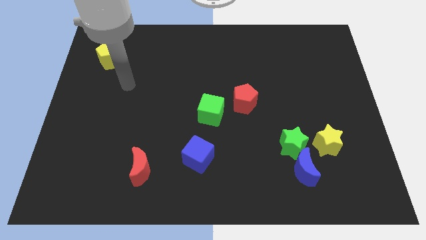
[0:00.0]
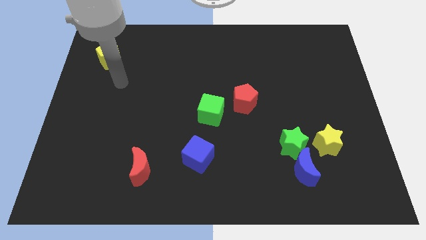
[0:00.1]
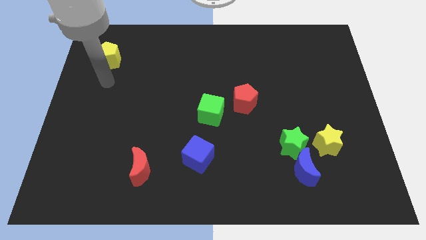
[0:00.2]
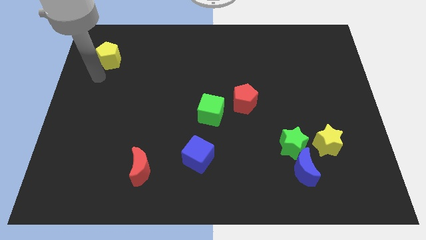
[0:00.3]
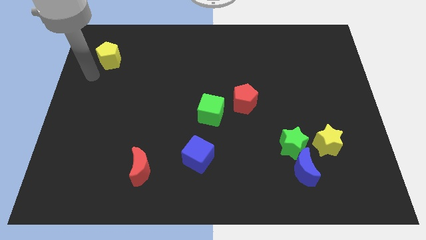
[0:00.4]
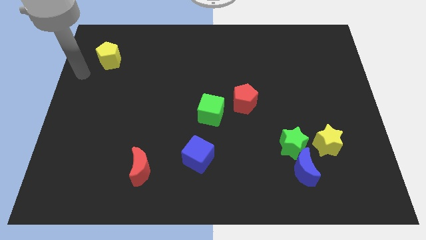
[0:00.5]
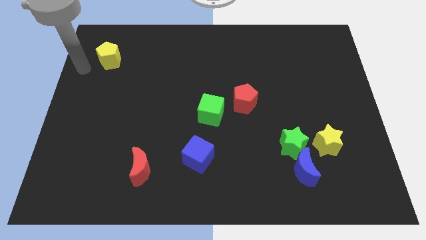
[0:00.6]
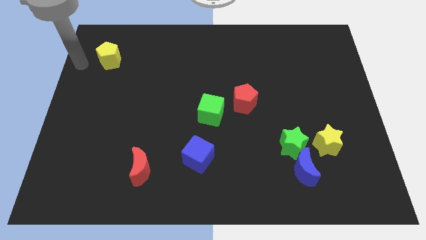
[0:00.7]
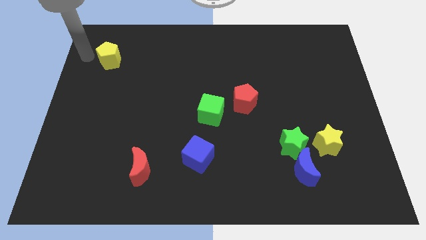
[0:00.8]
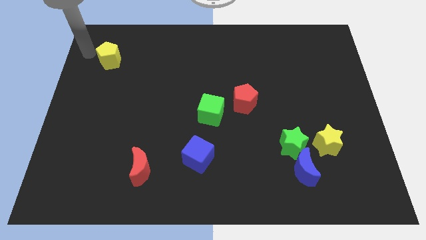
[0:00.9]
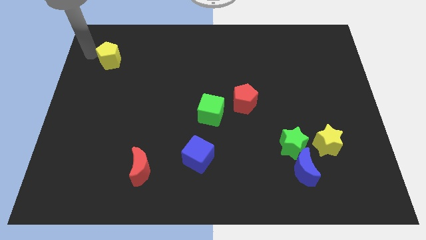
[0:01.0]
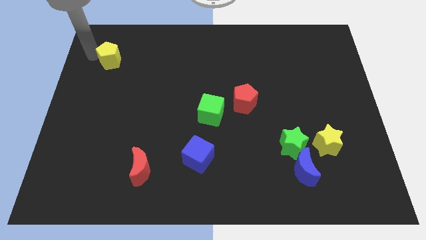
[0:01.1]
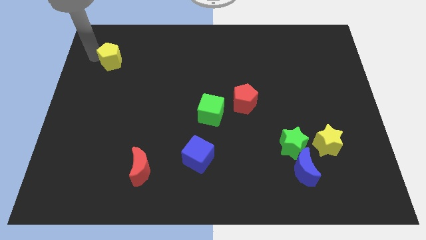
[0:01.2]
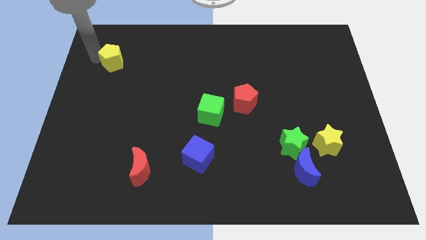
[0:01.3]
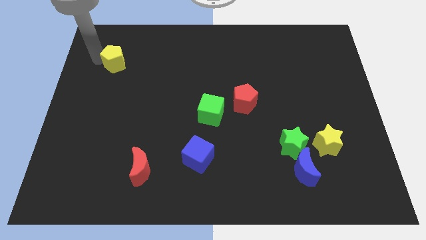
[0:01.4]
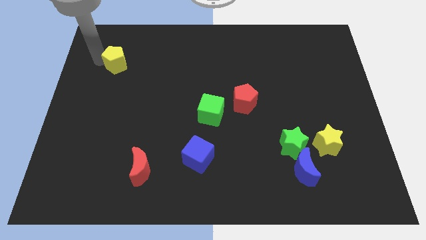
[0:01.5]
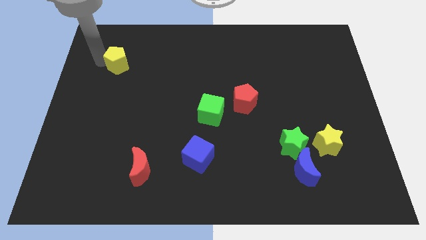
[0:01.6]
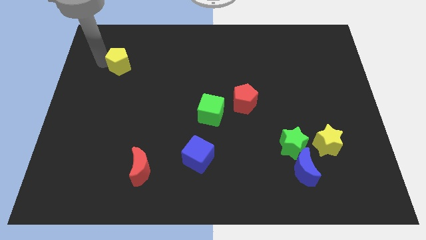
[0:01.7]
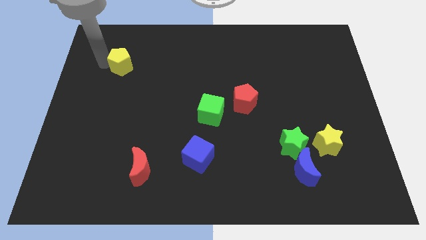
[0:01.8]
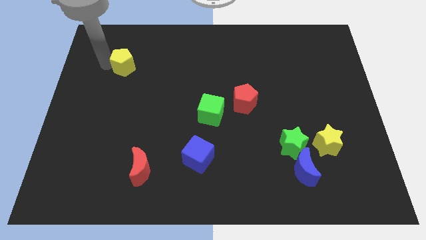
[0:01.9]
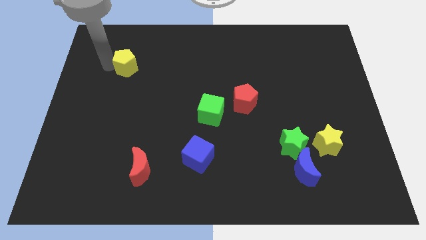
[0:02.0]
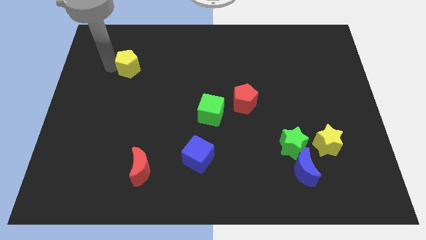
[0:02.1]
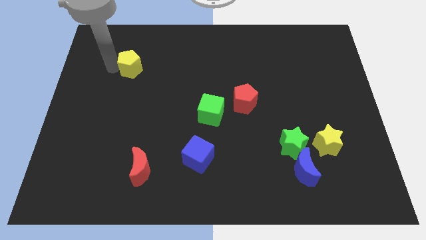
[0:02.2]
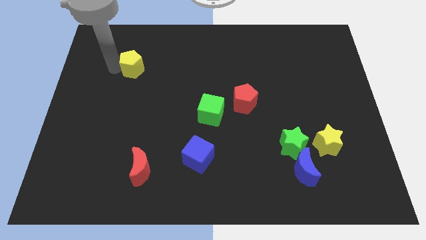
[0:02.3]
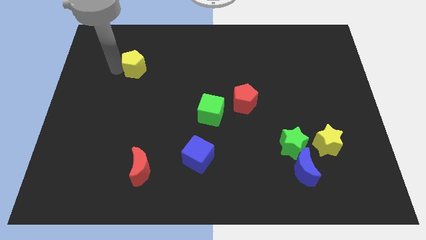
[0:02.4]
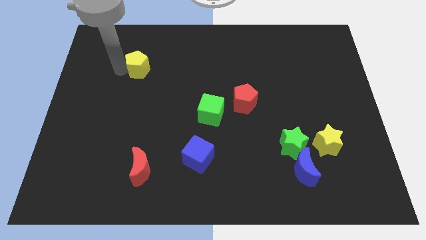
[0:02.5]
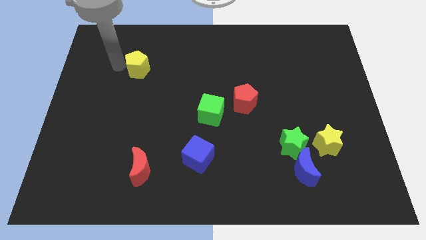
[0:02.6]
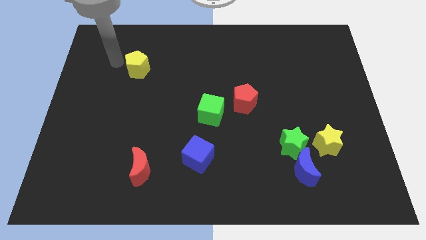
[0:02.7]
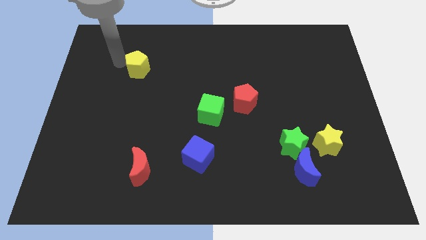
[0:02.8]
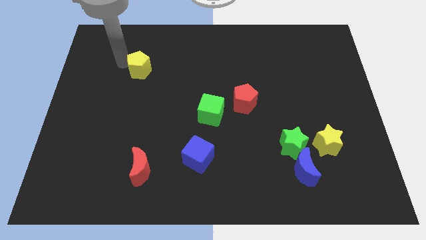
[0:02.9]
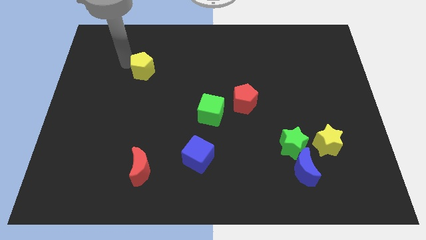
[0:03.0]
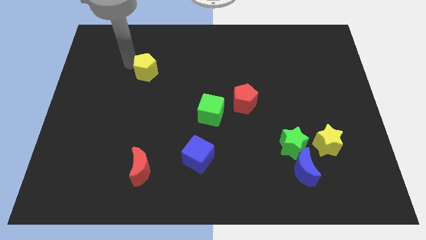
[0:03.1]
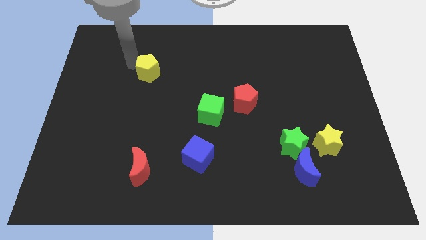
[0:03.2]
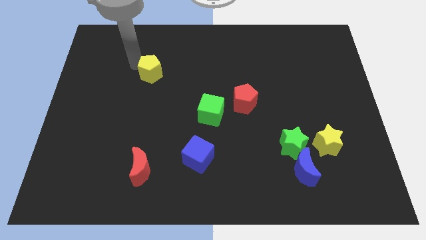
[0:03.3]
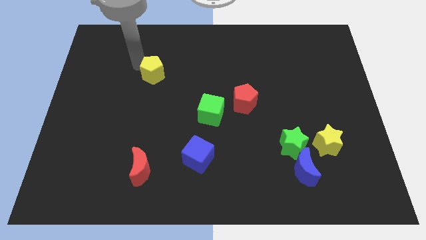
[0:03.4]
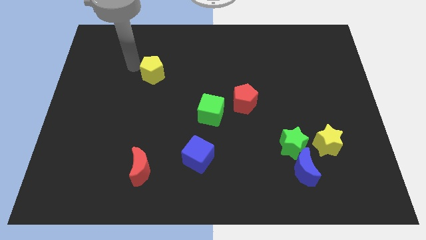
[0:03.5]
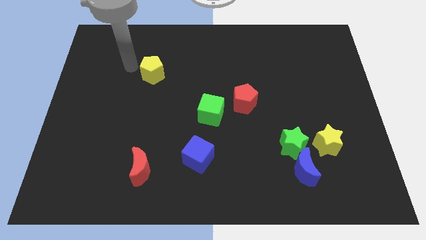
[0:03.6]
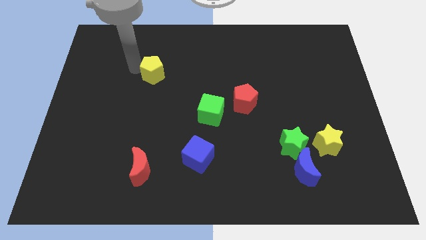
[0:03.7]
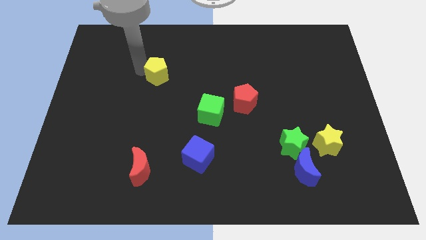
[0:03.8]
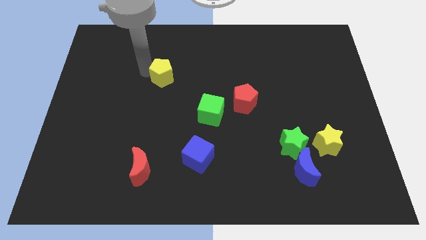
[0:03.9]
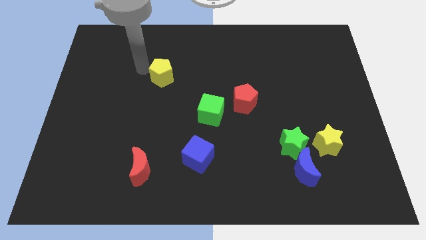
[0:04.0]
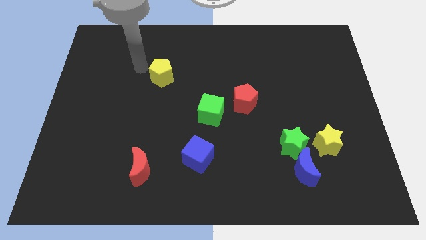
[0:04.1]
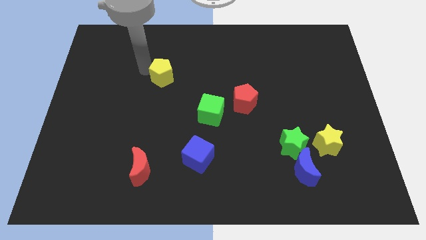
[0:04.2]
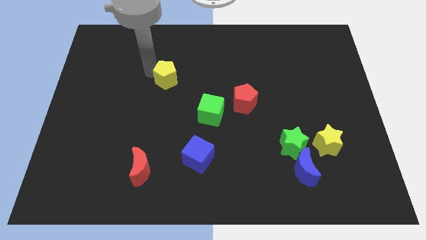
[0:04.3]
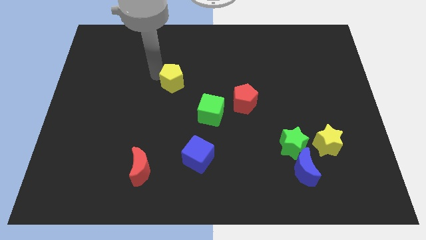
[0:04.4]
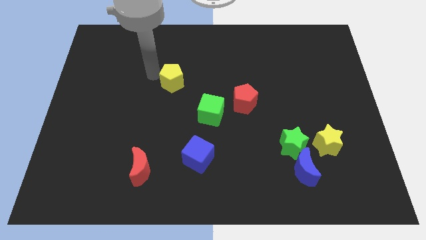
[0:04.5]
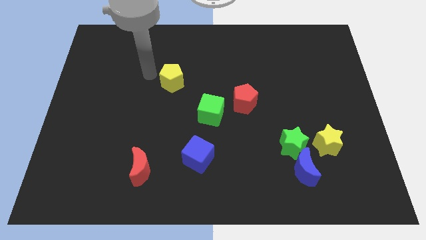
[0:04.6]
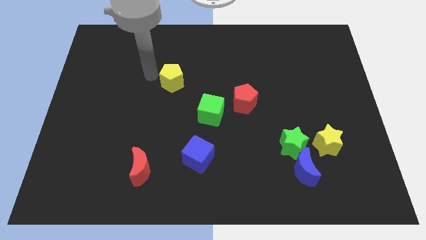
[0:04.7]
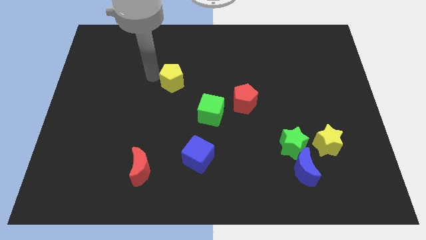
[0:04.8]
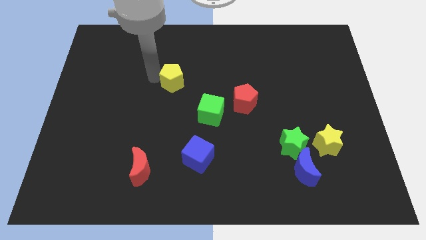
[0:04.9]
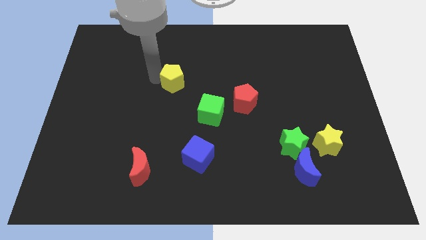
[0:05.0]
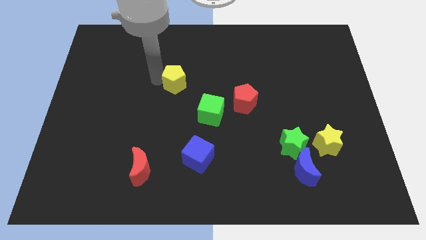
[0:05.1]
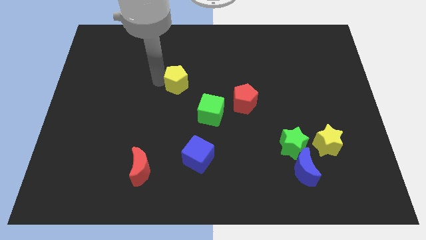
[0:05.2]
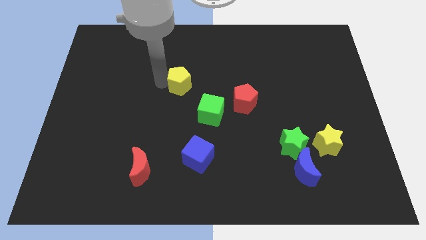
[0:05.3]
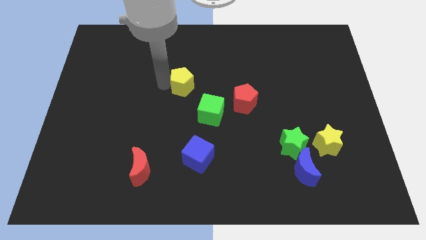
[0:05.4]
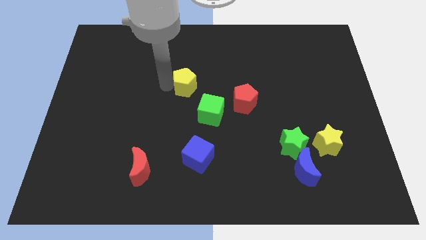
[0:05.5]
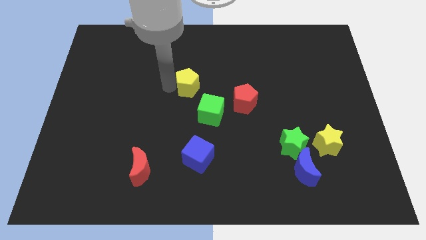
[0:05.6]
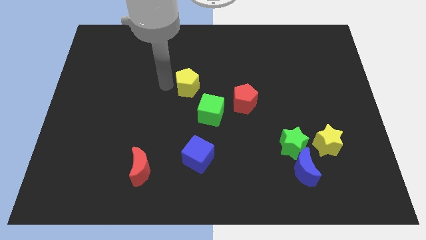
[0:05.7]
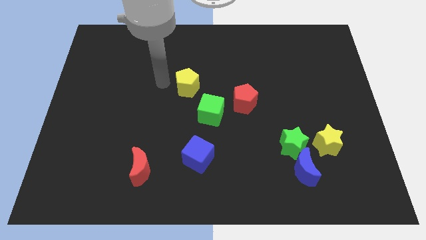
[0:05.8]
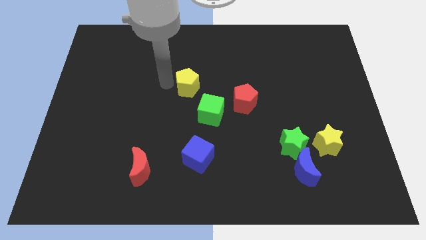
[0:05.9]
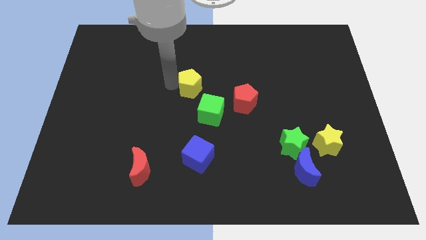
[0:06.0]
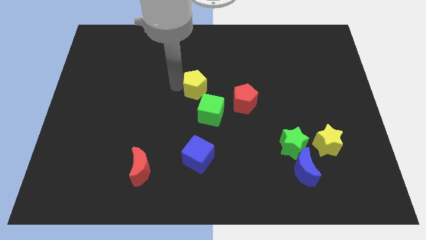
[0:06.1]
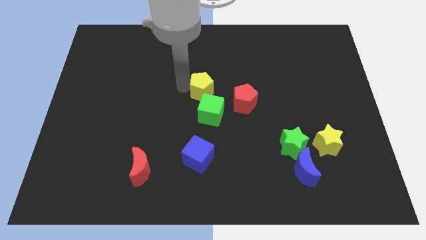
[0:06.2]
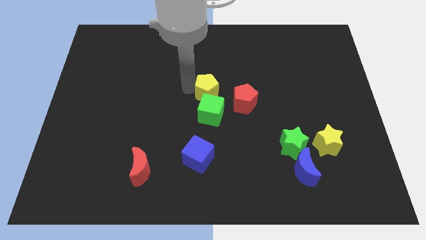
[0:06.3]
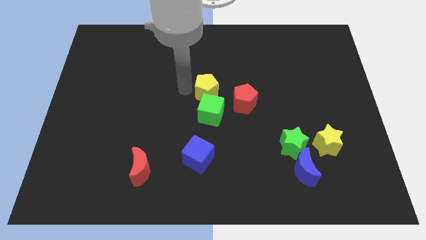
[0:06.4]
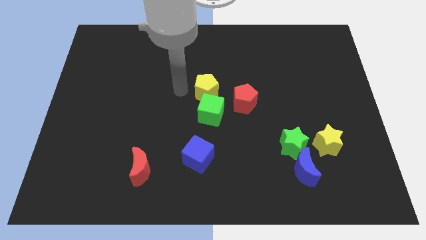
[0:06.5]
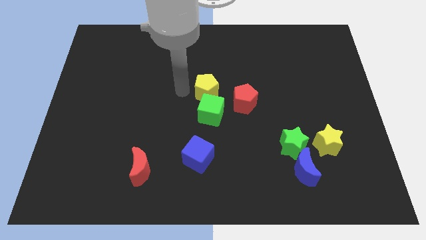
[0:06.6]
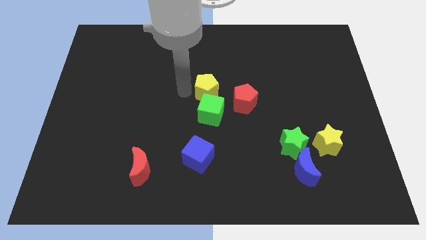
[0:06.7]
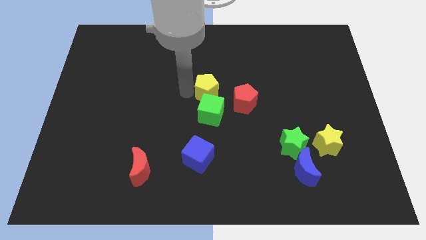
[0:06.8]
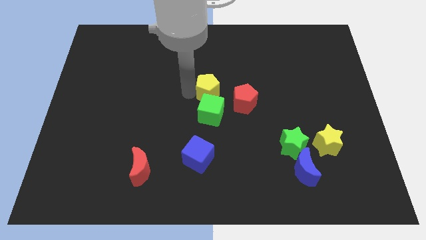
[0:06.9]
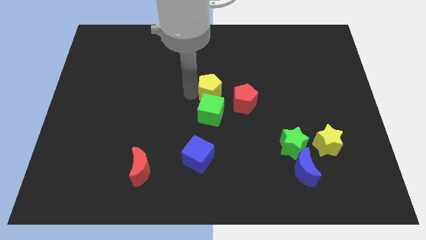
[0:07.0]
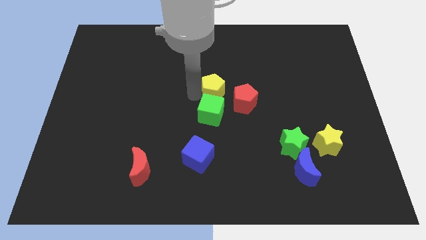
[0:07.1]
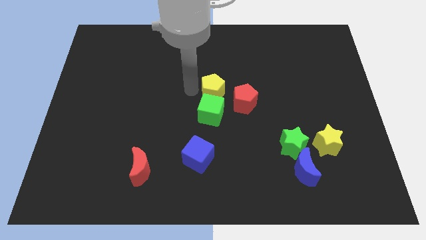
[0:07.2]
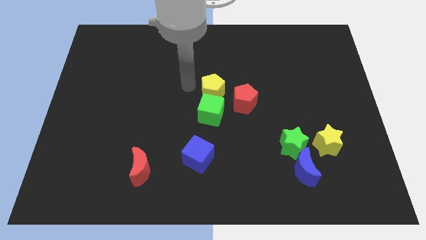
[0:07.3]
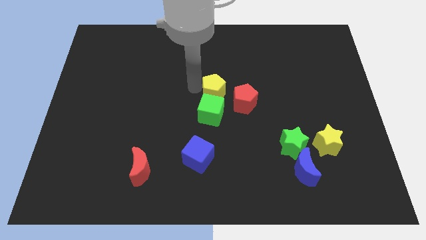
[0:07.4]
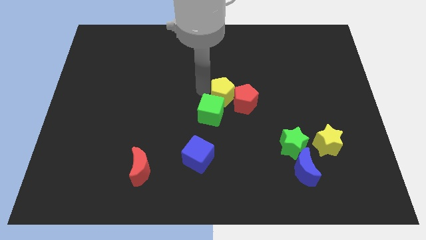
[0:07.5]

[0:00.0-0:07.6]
push the yellow pentagon to the red pentagon

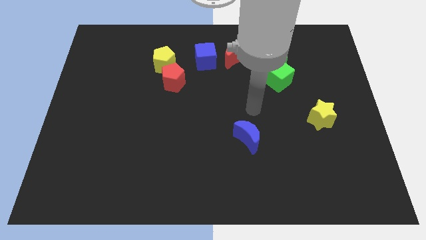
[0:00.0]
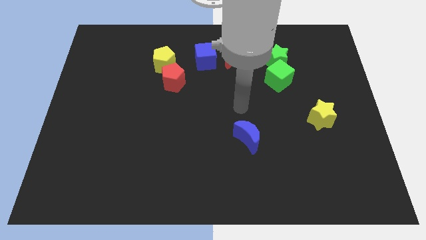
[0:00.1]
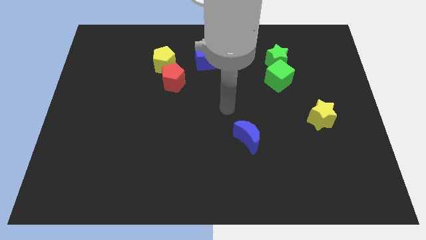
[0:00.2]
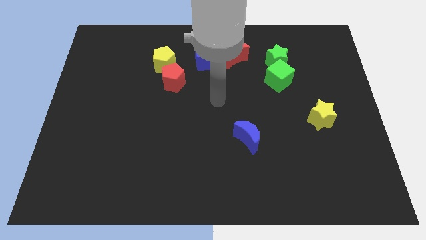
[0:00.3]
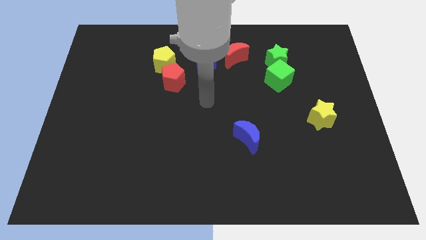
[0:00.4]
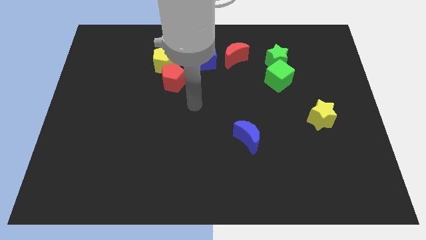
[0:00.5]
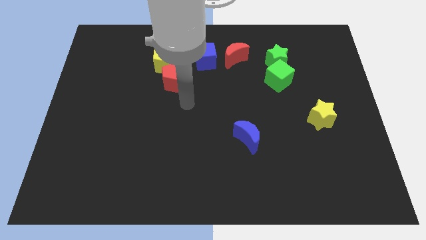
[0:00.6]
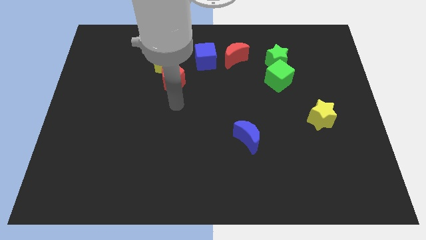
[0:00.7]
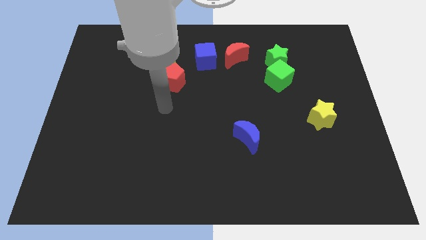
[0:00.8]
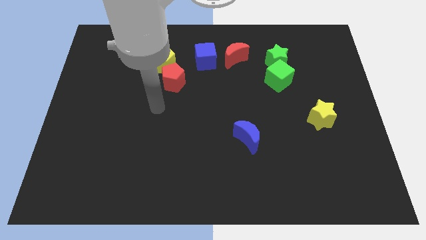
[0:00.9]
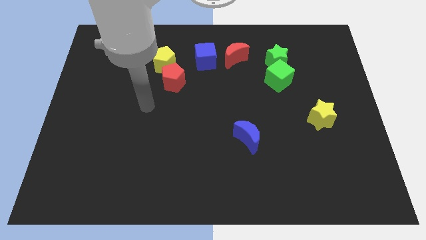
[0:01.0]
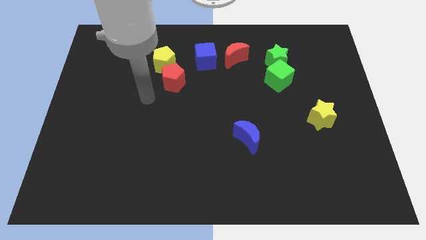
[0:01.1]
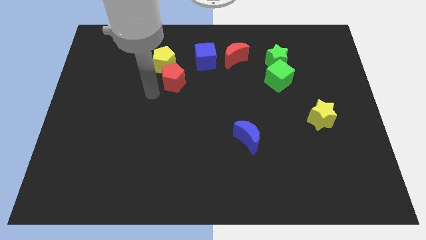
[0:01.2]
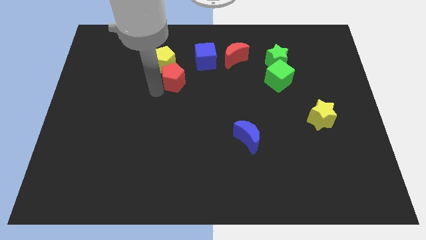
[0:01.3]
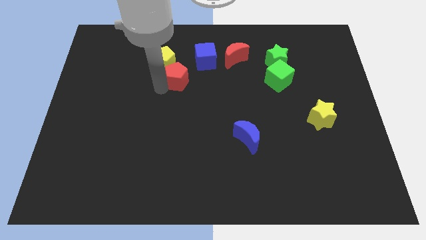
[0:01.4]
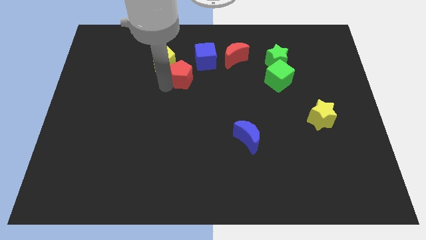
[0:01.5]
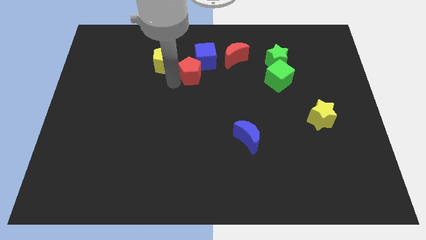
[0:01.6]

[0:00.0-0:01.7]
put the red pentagon next to the blue cube
